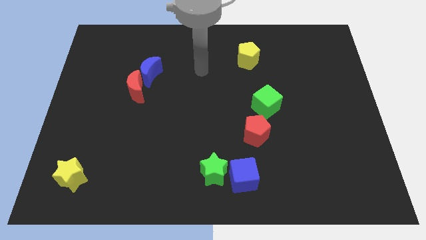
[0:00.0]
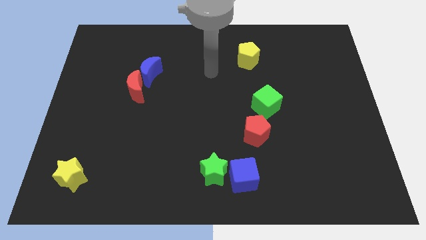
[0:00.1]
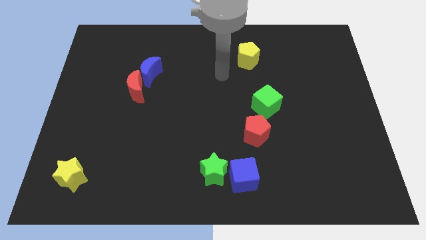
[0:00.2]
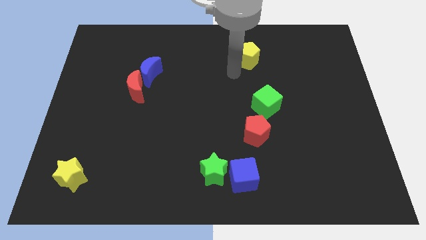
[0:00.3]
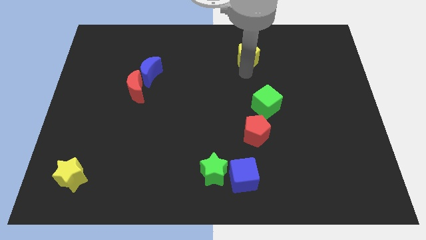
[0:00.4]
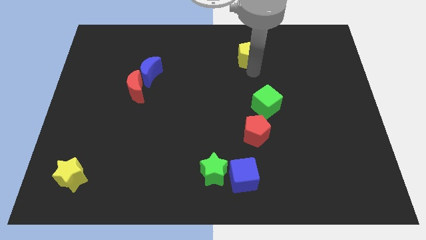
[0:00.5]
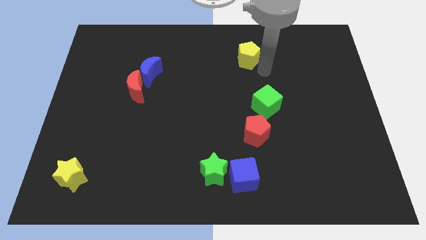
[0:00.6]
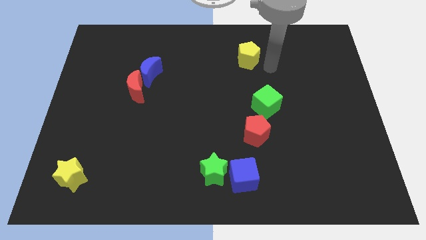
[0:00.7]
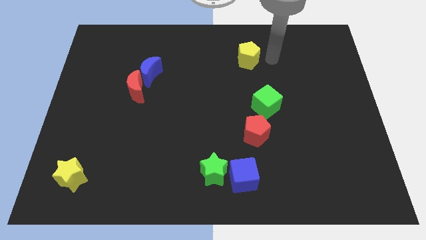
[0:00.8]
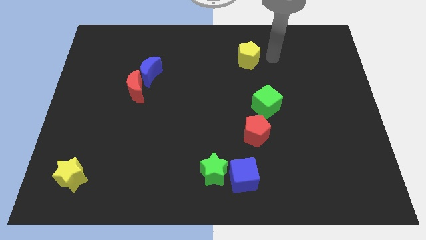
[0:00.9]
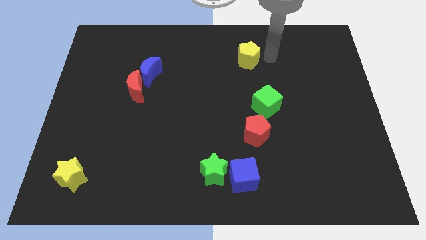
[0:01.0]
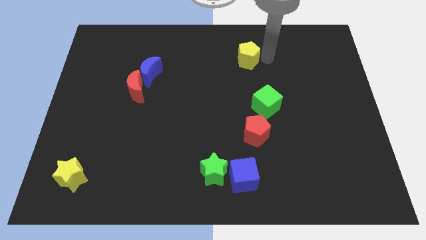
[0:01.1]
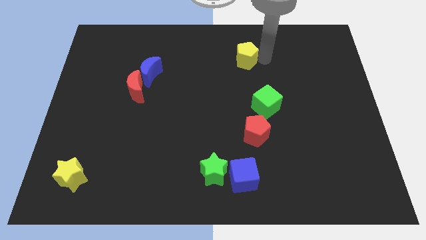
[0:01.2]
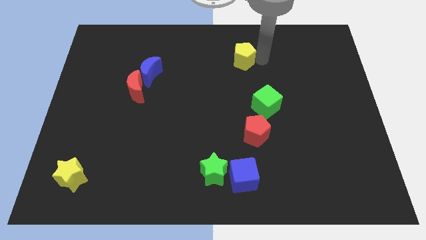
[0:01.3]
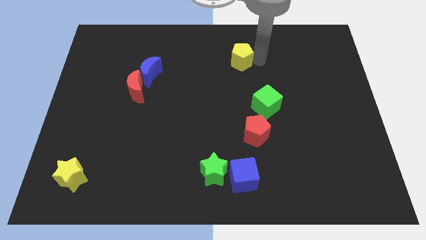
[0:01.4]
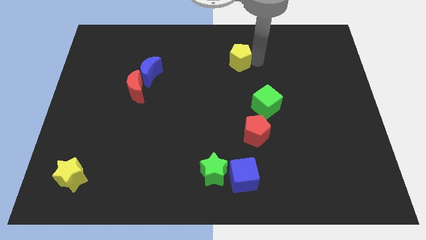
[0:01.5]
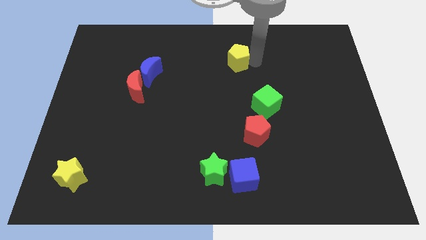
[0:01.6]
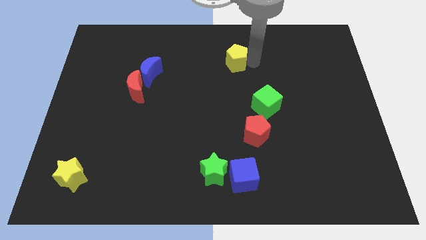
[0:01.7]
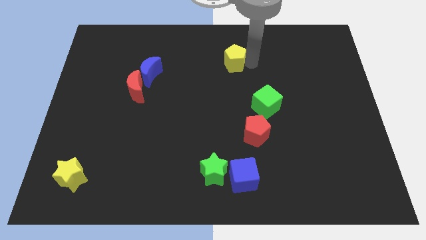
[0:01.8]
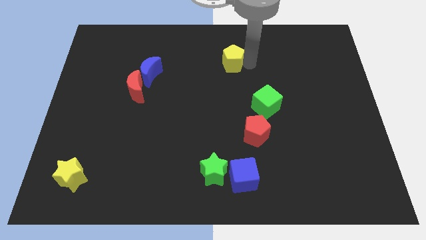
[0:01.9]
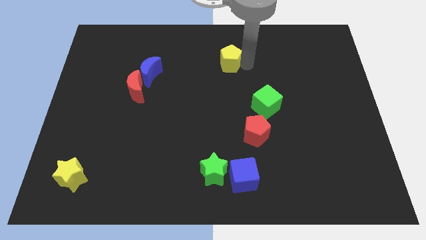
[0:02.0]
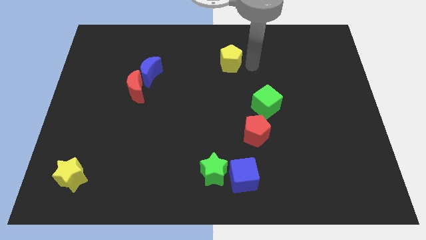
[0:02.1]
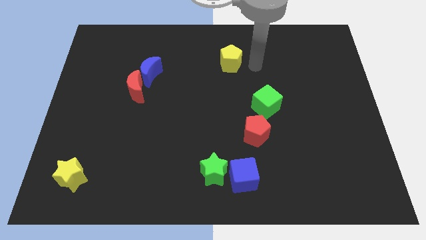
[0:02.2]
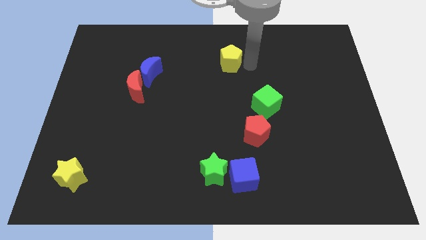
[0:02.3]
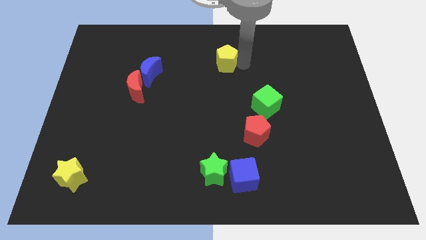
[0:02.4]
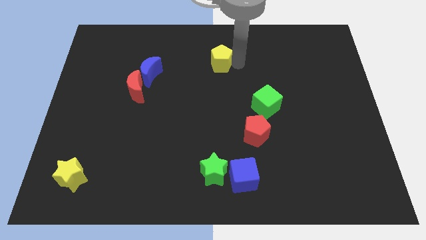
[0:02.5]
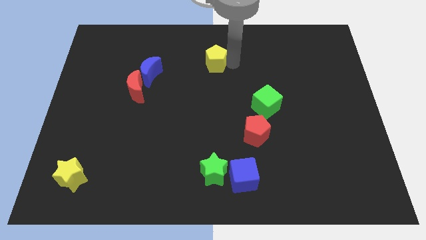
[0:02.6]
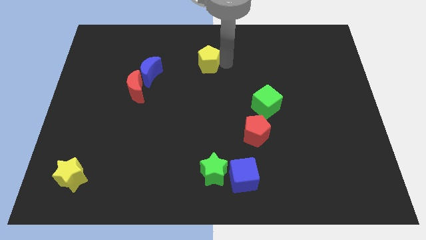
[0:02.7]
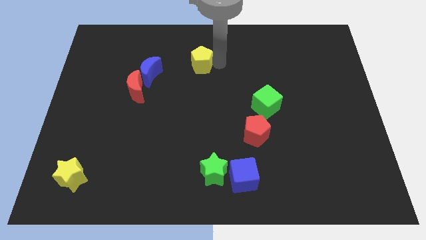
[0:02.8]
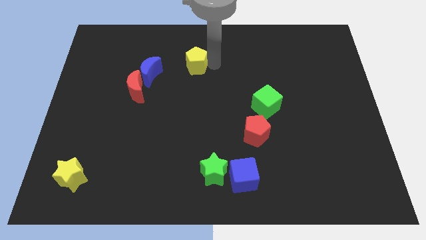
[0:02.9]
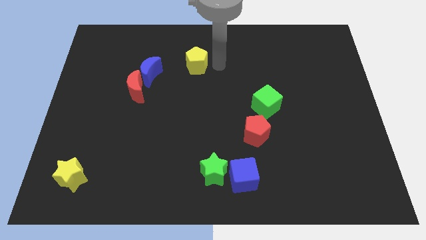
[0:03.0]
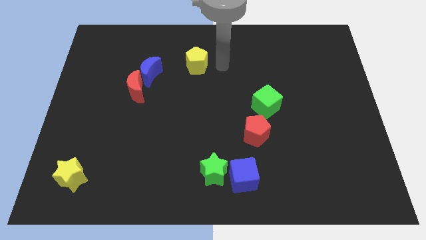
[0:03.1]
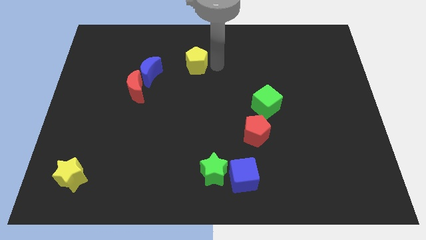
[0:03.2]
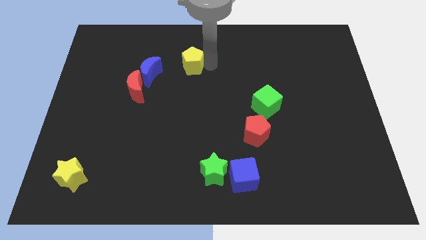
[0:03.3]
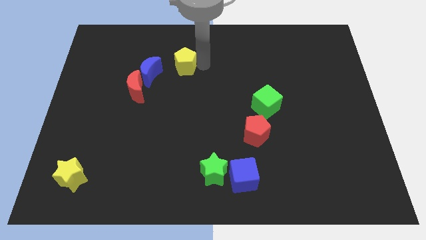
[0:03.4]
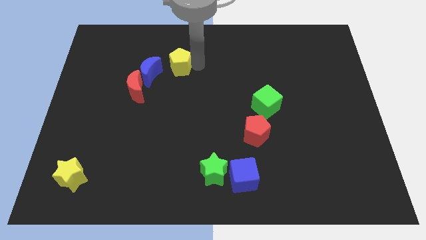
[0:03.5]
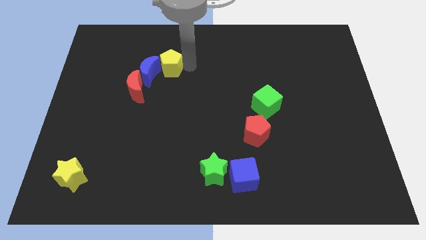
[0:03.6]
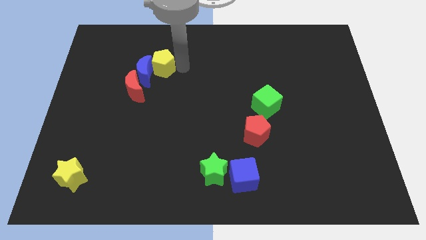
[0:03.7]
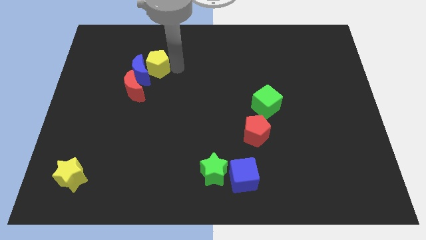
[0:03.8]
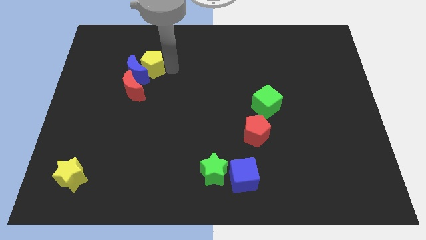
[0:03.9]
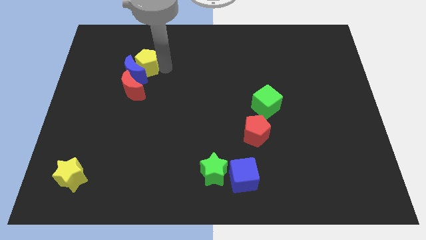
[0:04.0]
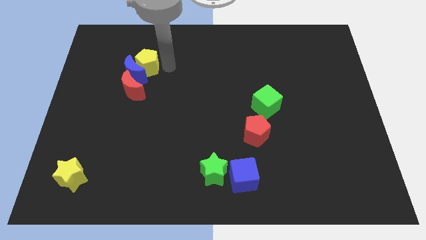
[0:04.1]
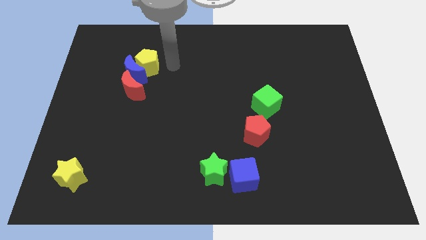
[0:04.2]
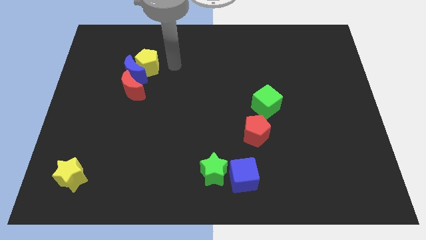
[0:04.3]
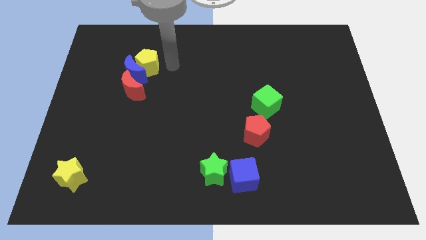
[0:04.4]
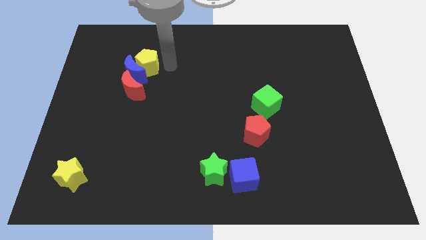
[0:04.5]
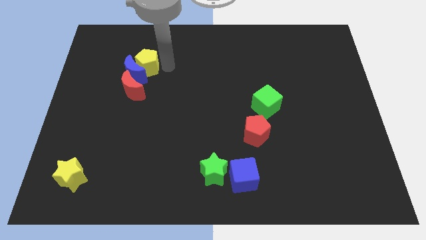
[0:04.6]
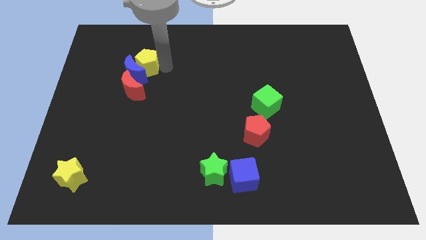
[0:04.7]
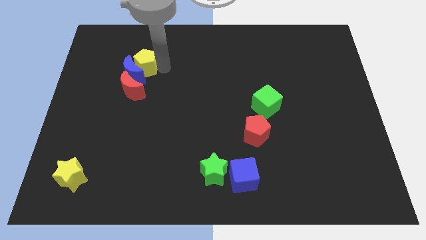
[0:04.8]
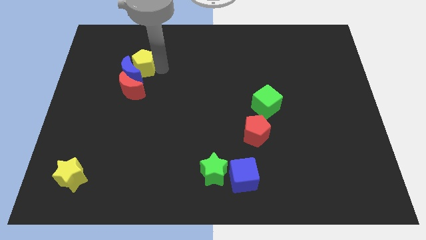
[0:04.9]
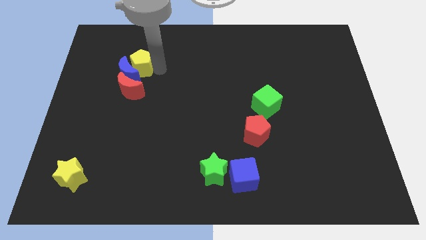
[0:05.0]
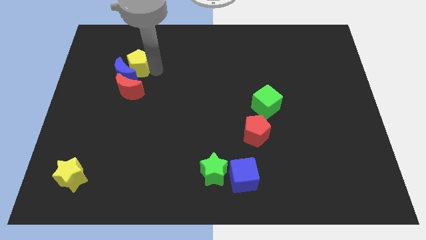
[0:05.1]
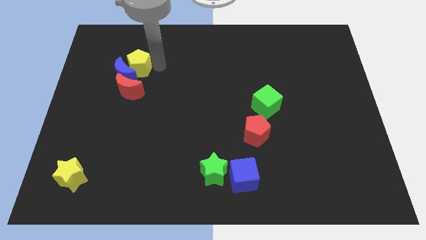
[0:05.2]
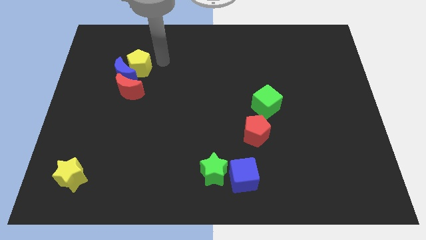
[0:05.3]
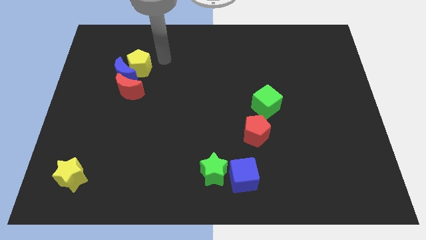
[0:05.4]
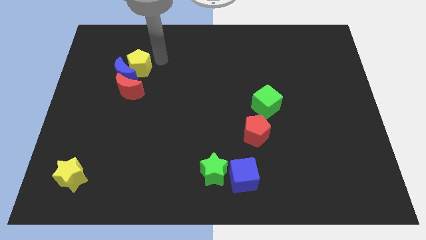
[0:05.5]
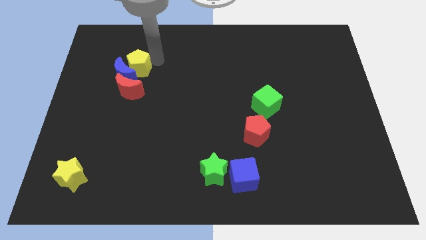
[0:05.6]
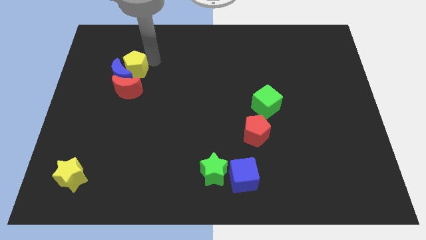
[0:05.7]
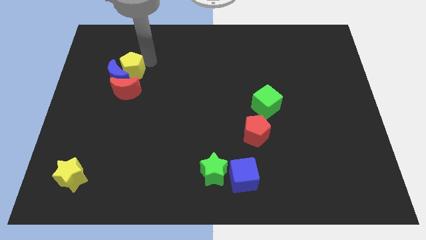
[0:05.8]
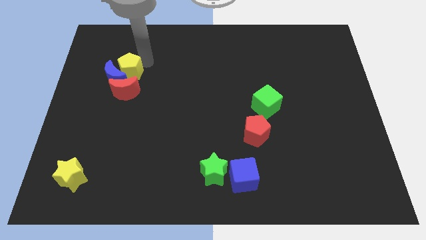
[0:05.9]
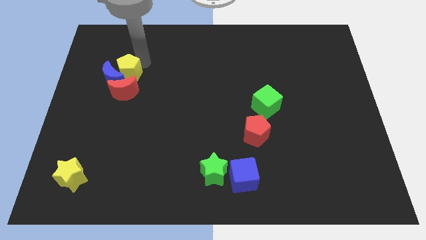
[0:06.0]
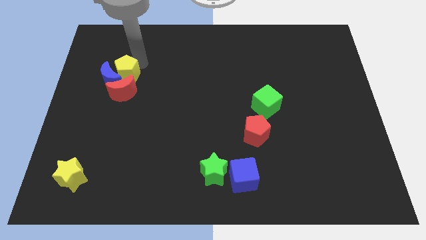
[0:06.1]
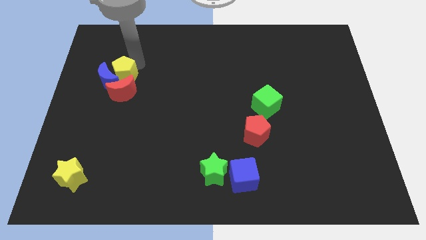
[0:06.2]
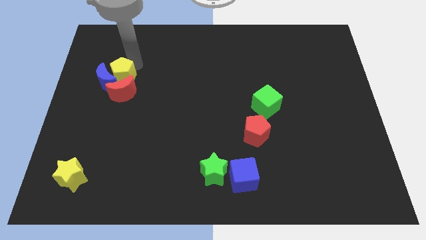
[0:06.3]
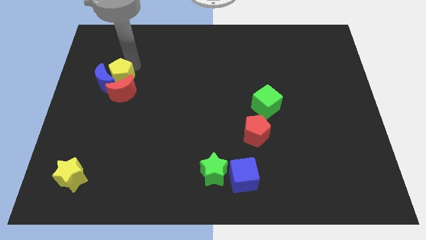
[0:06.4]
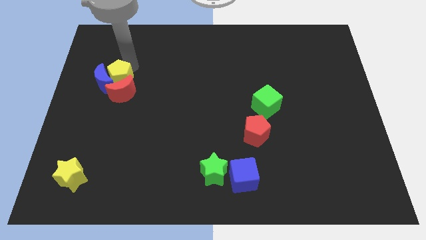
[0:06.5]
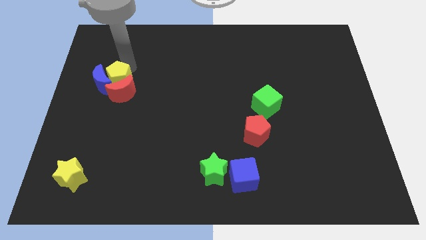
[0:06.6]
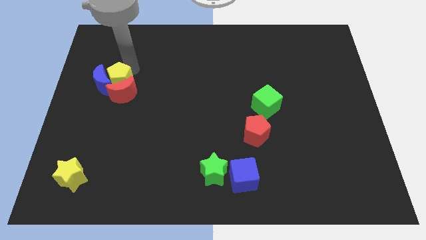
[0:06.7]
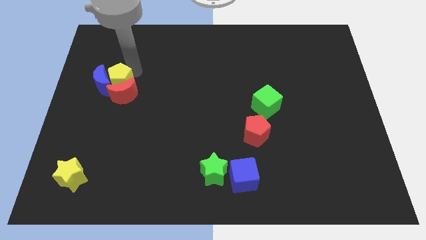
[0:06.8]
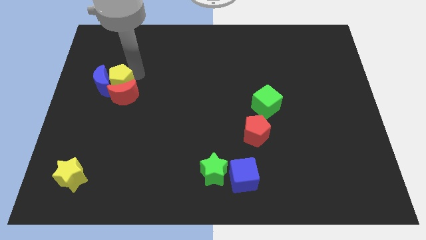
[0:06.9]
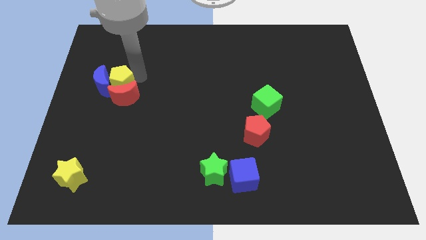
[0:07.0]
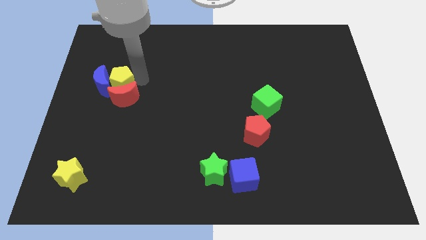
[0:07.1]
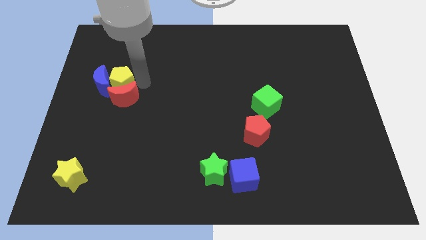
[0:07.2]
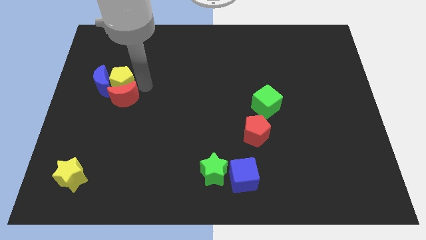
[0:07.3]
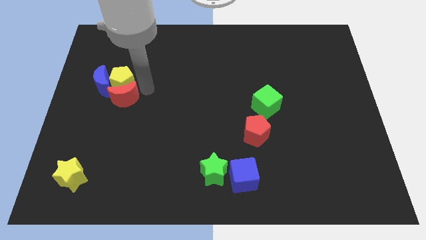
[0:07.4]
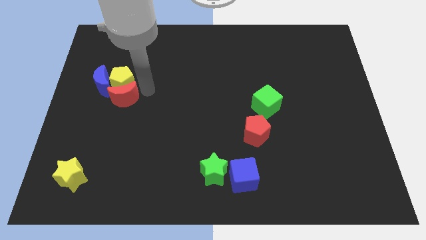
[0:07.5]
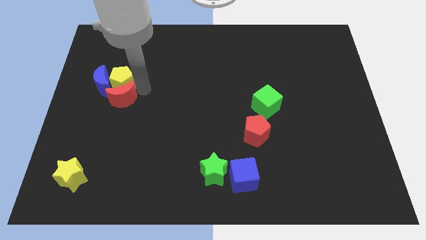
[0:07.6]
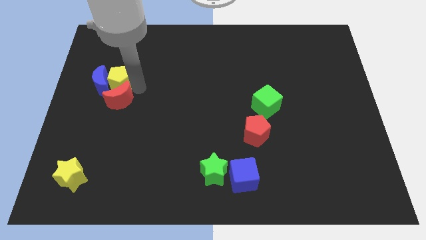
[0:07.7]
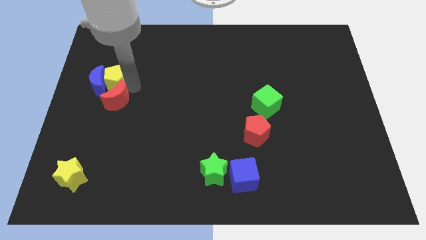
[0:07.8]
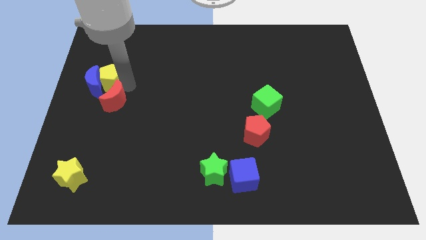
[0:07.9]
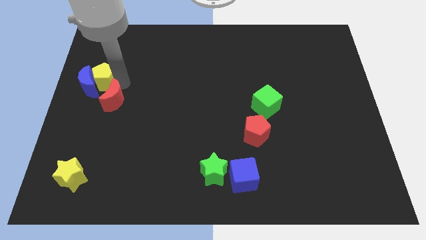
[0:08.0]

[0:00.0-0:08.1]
move the yellow pentagon to the left side
